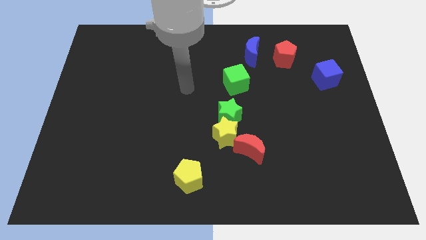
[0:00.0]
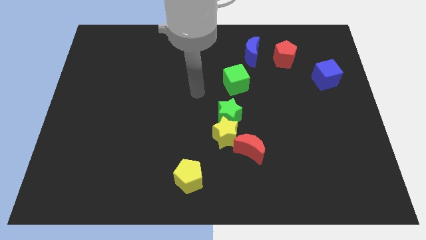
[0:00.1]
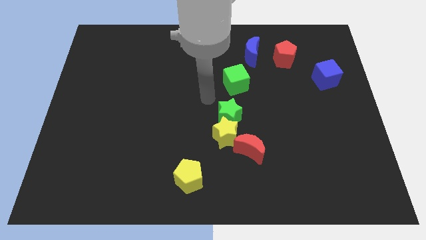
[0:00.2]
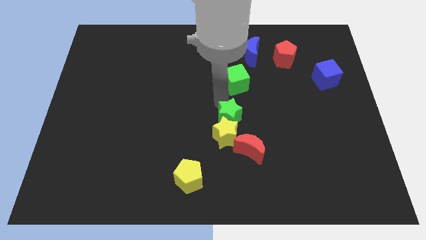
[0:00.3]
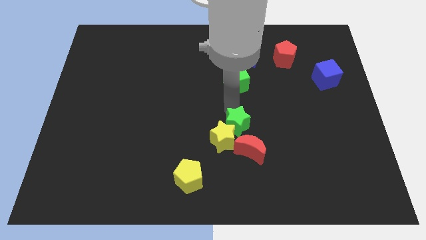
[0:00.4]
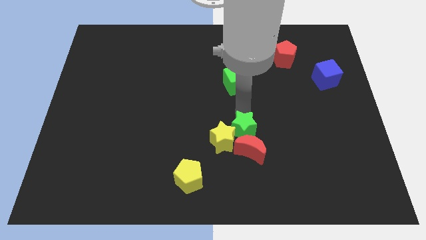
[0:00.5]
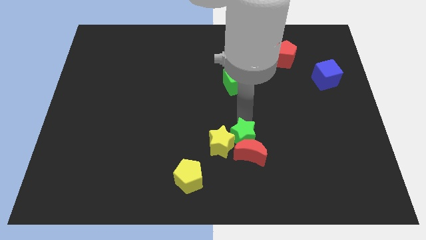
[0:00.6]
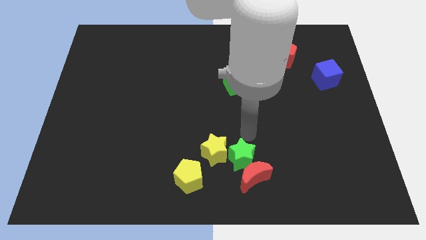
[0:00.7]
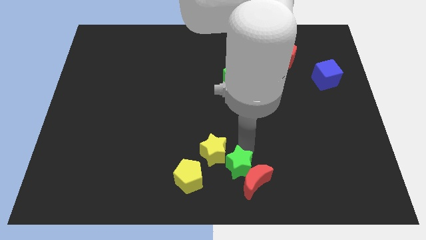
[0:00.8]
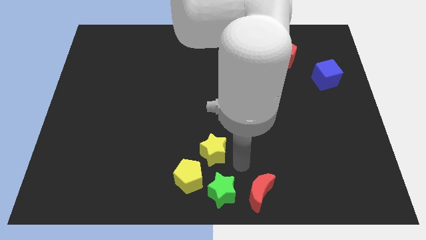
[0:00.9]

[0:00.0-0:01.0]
separate the yellow star from the green star and red moon

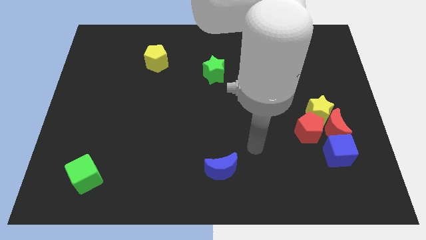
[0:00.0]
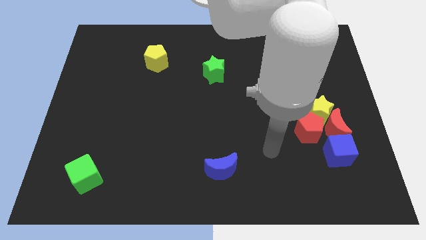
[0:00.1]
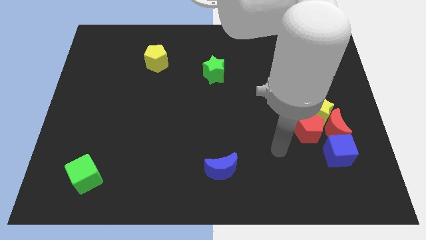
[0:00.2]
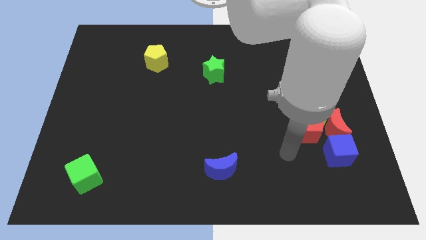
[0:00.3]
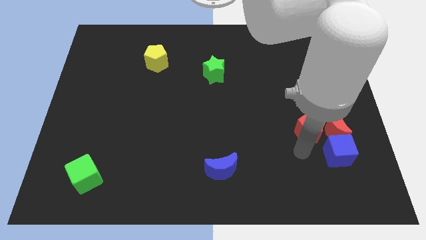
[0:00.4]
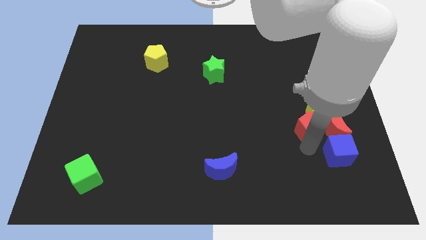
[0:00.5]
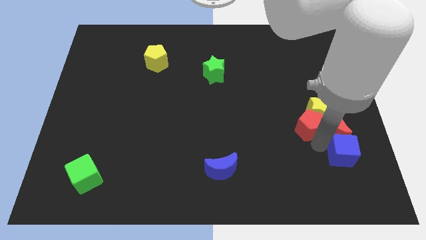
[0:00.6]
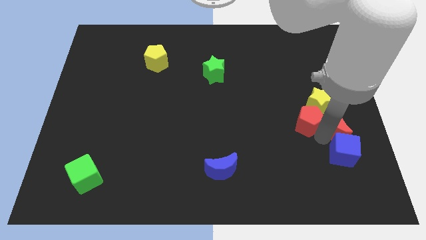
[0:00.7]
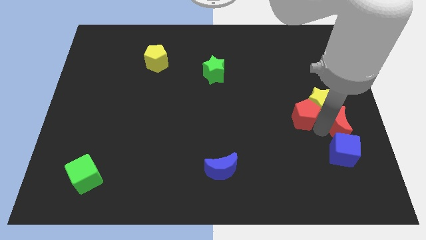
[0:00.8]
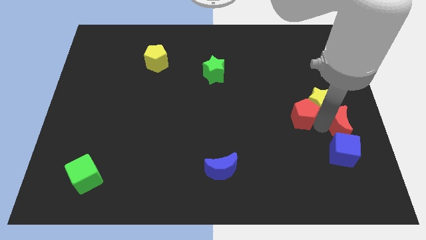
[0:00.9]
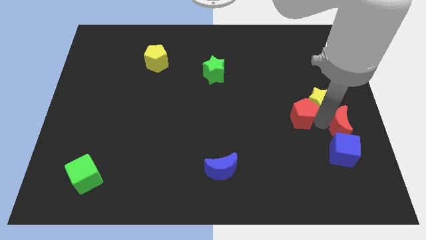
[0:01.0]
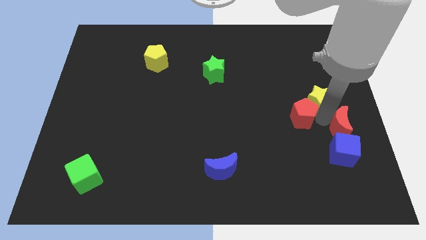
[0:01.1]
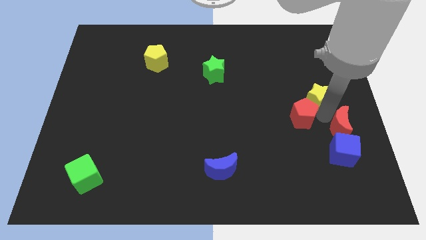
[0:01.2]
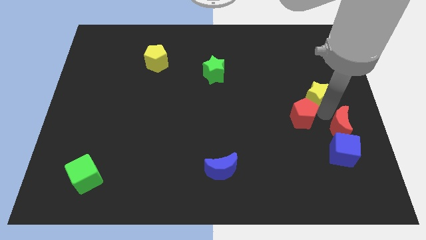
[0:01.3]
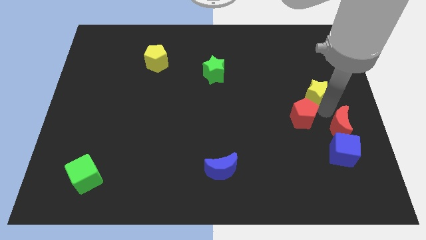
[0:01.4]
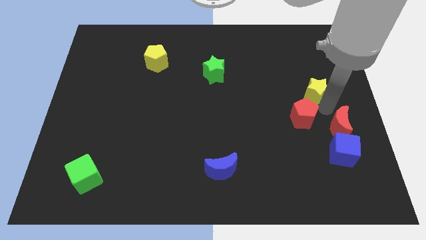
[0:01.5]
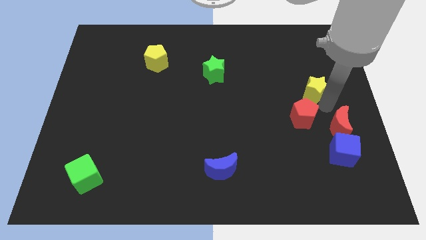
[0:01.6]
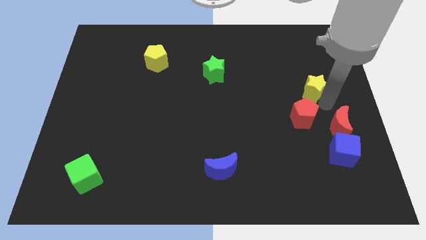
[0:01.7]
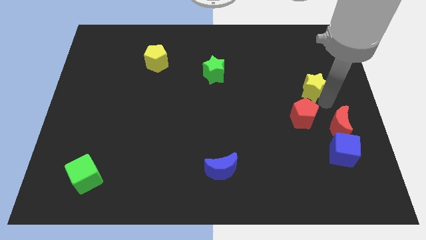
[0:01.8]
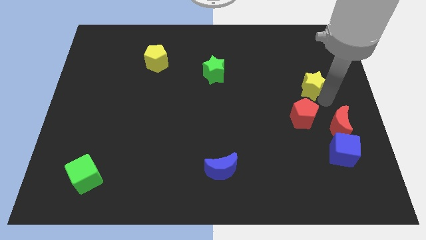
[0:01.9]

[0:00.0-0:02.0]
pull the yellow star apart from the red moon and red pentagon

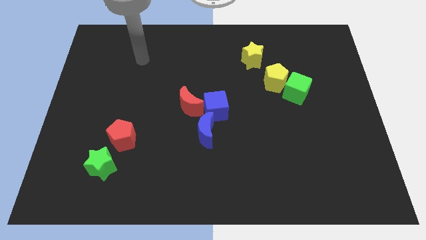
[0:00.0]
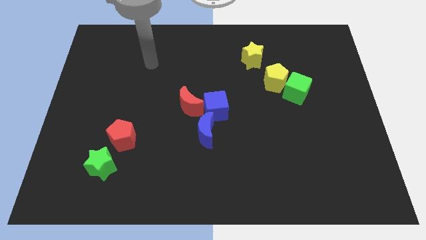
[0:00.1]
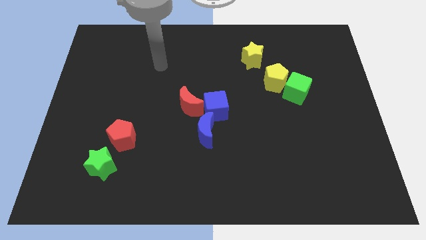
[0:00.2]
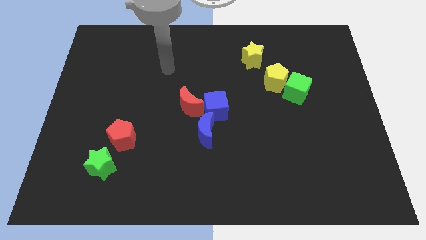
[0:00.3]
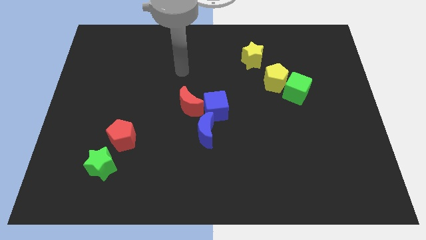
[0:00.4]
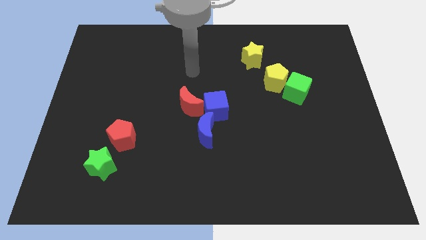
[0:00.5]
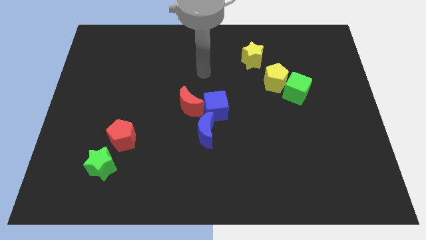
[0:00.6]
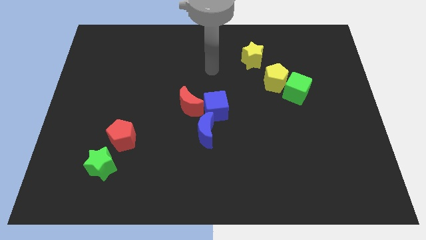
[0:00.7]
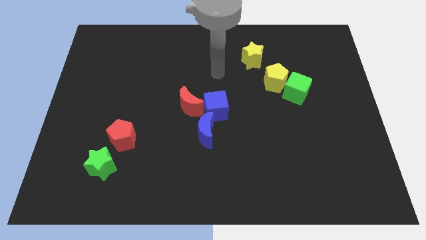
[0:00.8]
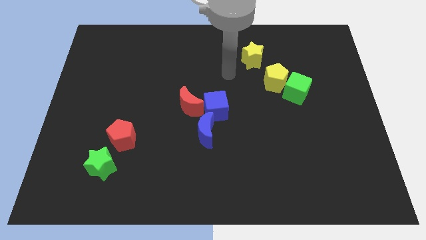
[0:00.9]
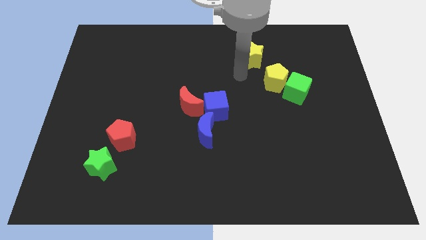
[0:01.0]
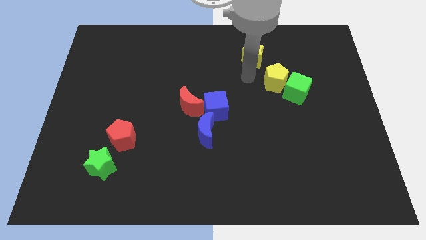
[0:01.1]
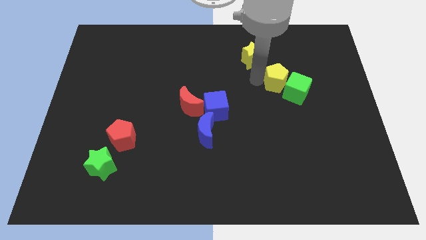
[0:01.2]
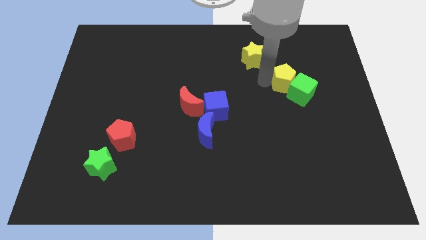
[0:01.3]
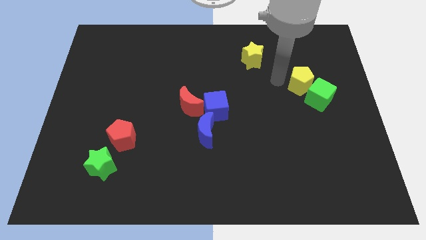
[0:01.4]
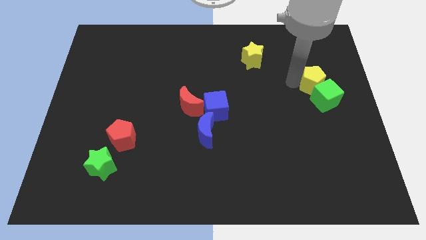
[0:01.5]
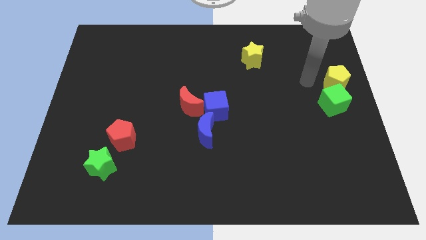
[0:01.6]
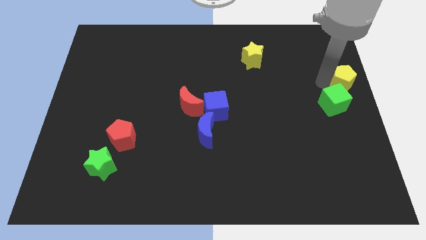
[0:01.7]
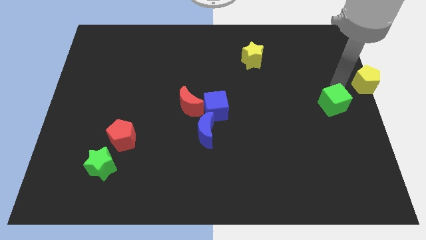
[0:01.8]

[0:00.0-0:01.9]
separate the green cube from the yellow pentagon

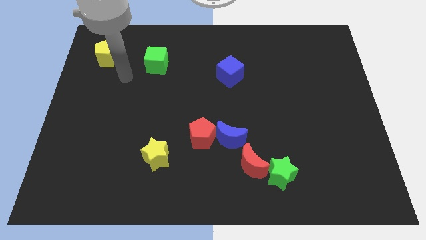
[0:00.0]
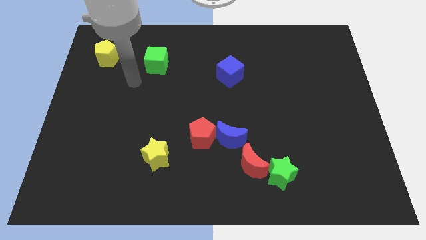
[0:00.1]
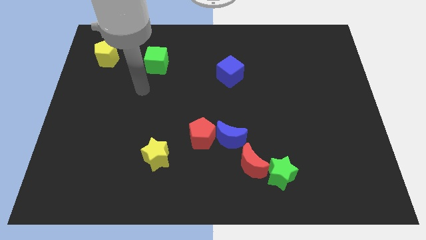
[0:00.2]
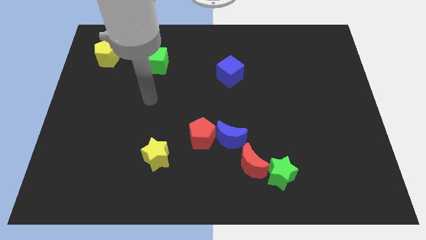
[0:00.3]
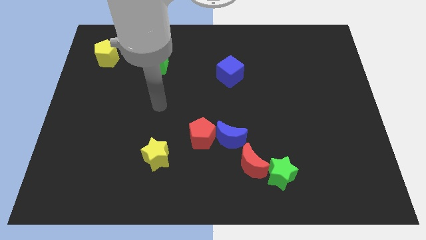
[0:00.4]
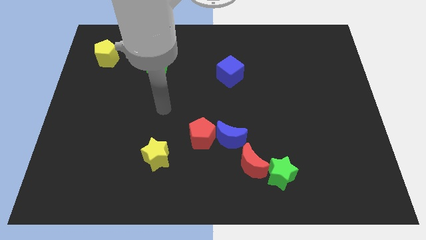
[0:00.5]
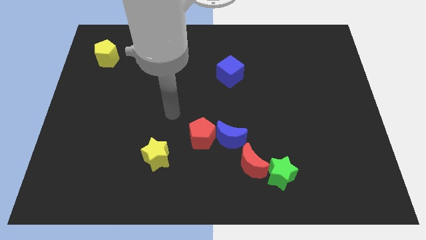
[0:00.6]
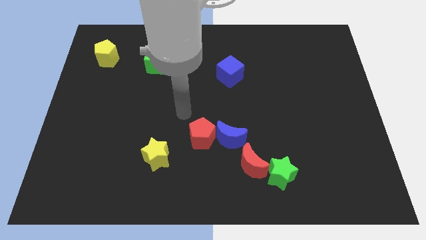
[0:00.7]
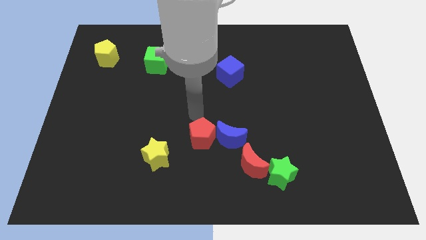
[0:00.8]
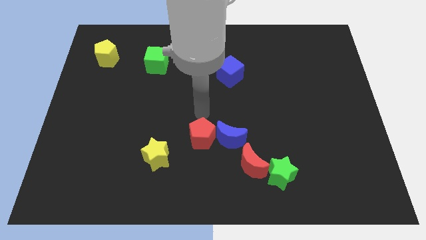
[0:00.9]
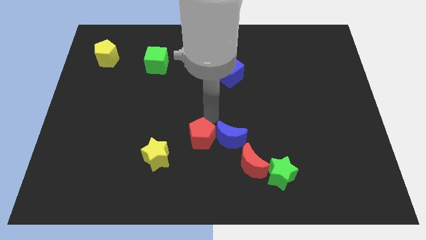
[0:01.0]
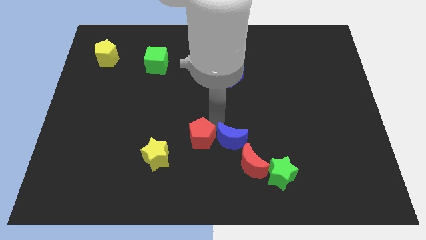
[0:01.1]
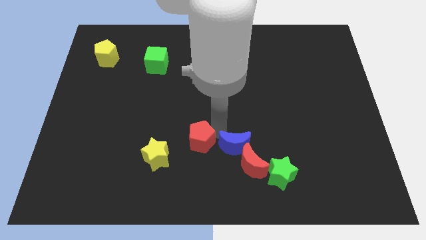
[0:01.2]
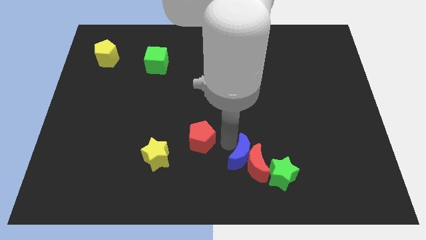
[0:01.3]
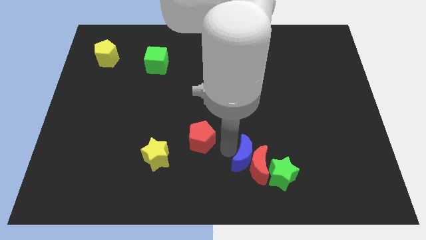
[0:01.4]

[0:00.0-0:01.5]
move the red pentagon away from the blue moon

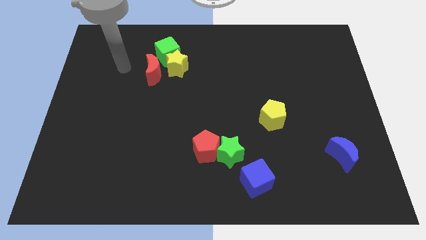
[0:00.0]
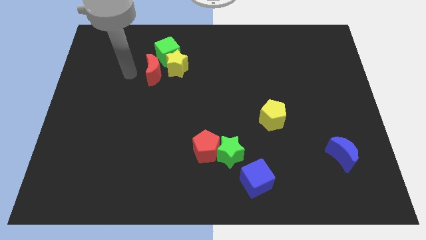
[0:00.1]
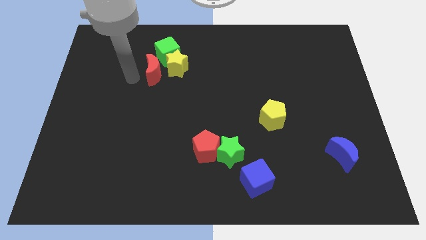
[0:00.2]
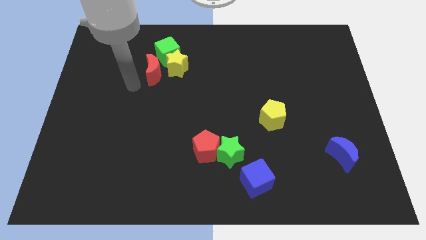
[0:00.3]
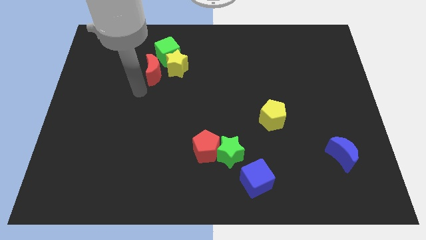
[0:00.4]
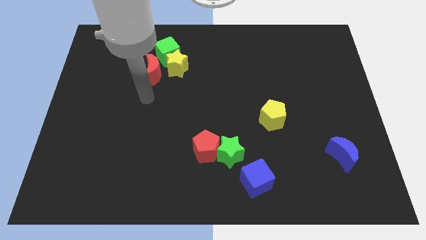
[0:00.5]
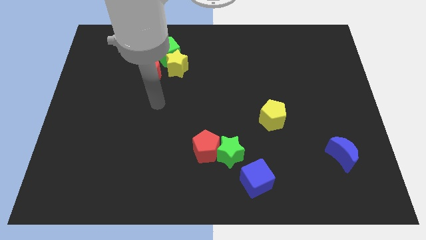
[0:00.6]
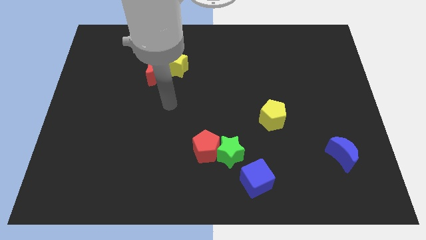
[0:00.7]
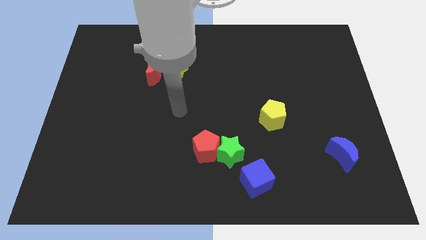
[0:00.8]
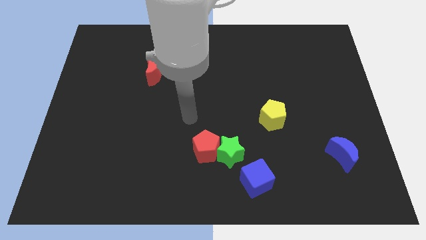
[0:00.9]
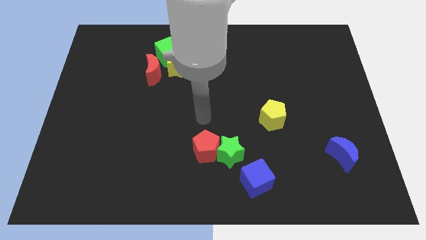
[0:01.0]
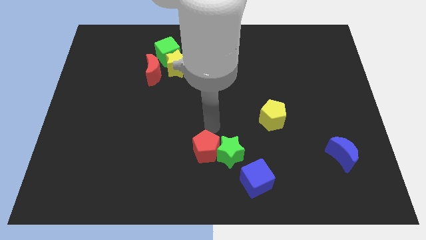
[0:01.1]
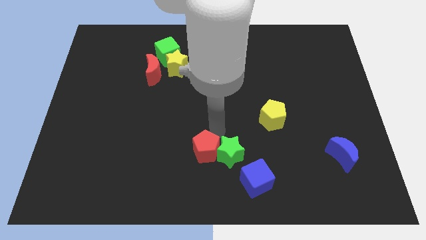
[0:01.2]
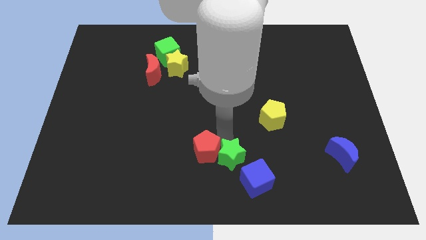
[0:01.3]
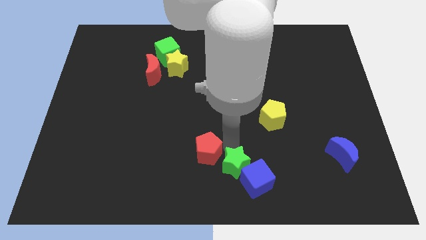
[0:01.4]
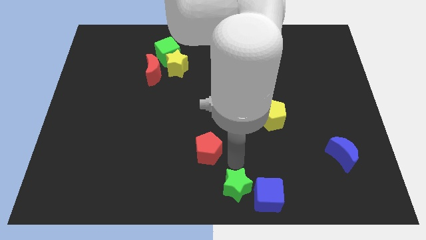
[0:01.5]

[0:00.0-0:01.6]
separate the red pentagon from the green star

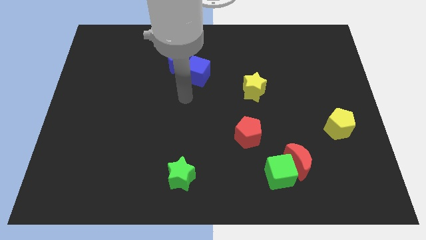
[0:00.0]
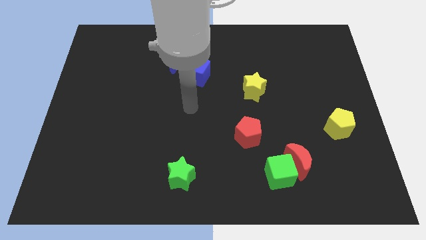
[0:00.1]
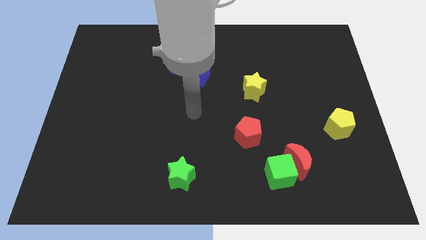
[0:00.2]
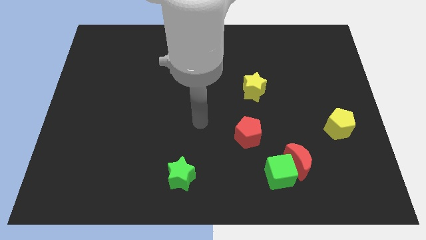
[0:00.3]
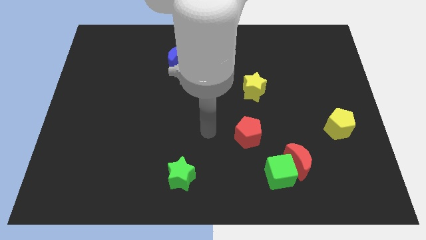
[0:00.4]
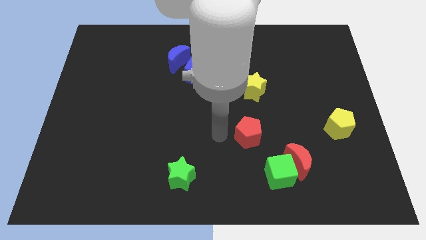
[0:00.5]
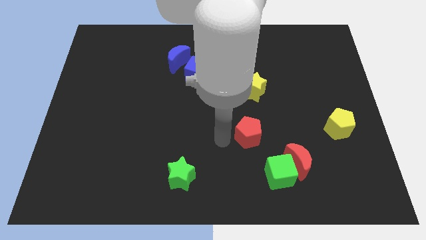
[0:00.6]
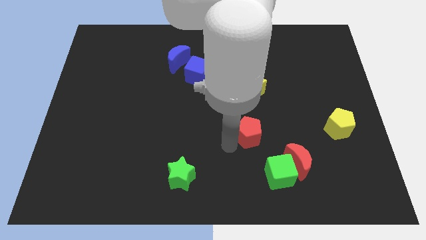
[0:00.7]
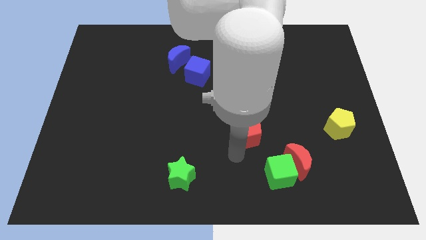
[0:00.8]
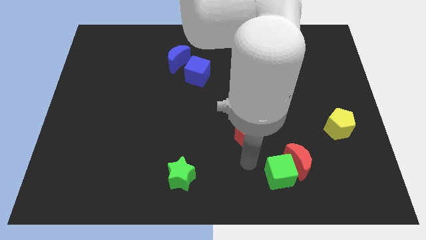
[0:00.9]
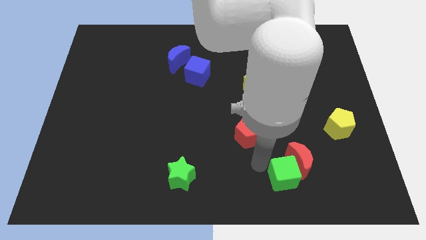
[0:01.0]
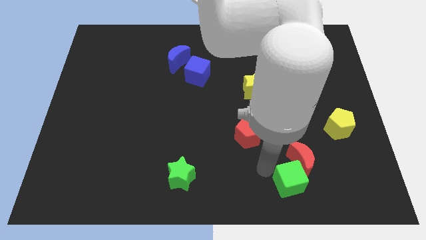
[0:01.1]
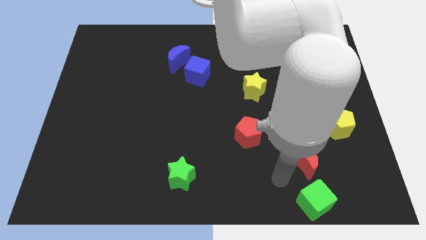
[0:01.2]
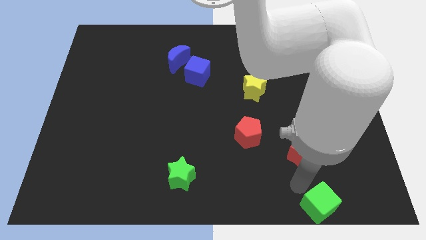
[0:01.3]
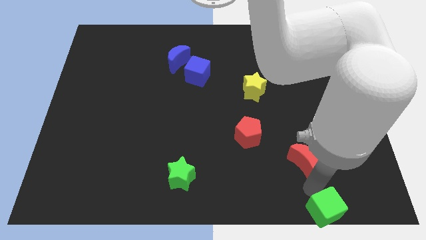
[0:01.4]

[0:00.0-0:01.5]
move the red moon away from the green cube
